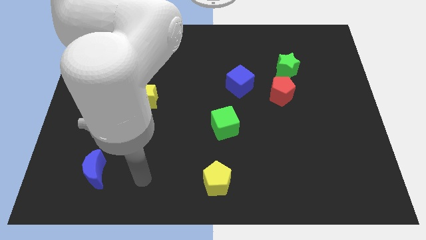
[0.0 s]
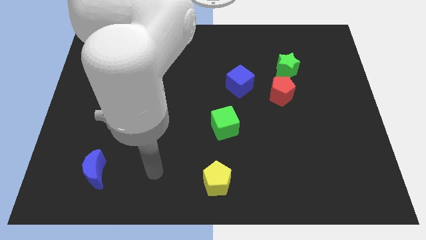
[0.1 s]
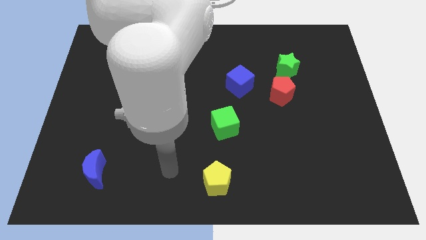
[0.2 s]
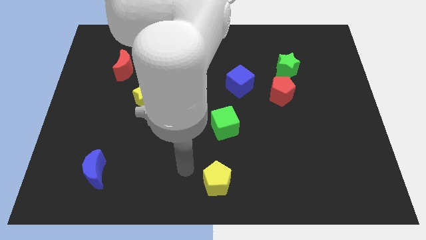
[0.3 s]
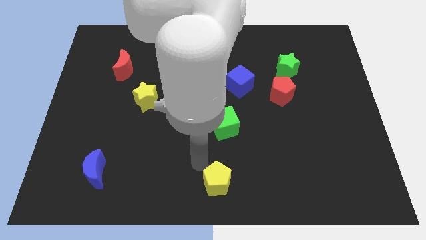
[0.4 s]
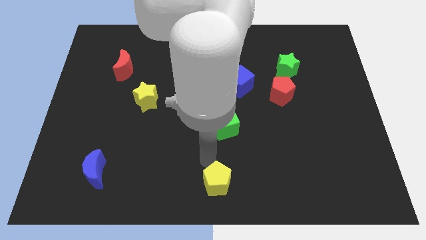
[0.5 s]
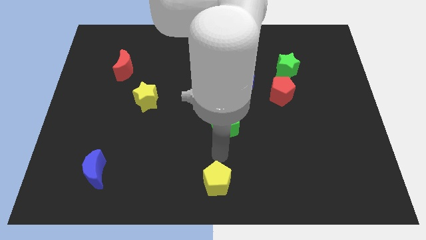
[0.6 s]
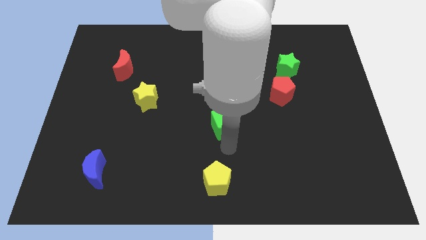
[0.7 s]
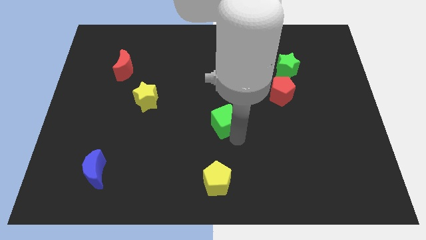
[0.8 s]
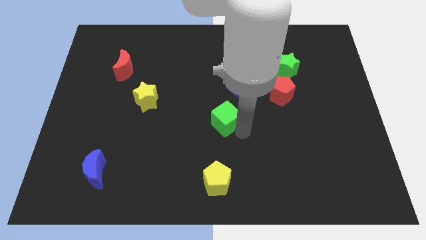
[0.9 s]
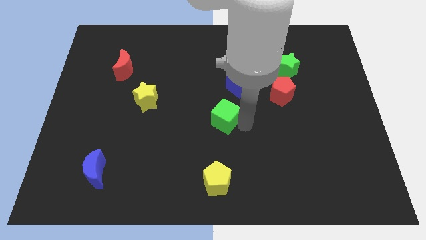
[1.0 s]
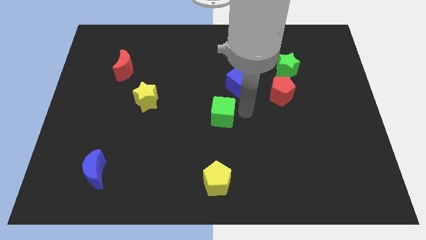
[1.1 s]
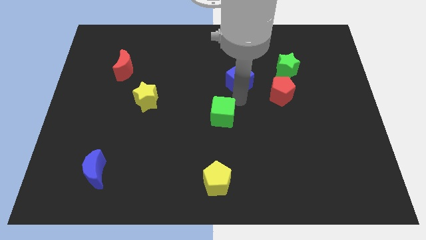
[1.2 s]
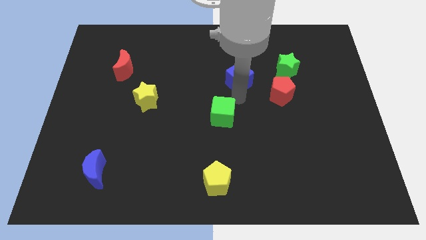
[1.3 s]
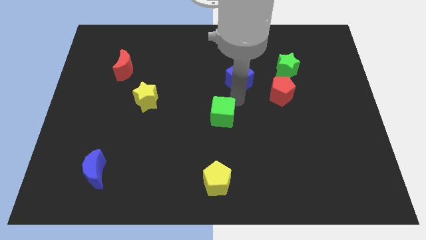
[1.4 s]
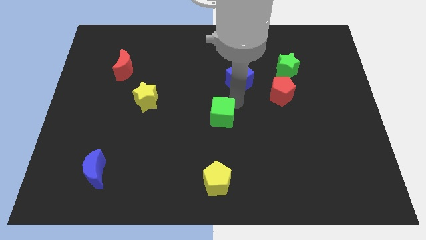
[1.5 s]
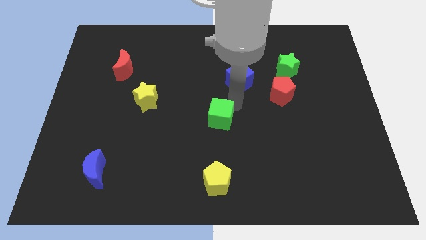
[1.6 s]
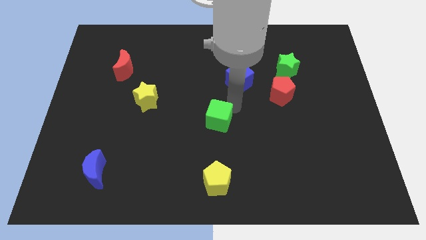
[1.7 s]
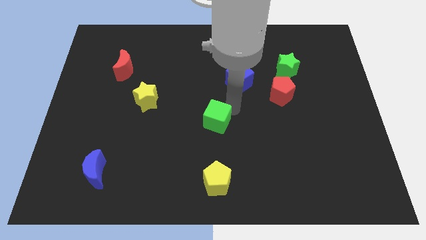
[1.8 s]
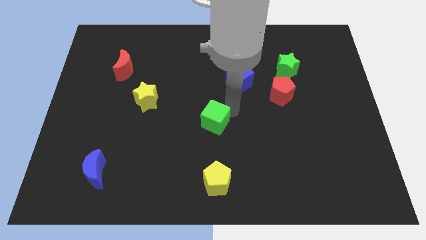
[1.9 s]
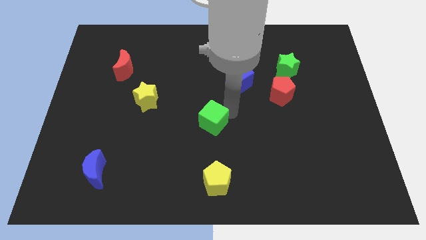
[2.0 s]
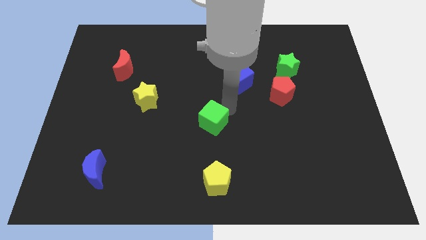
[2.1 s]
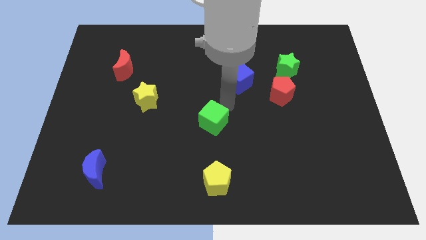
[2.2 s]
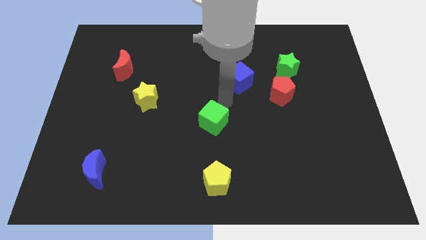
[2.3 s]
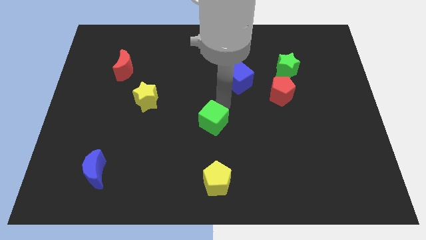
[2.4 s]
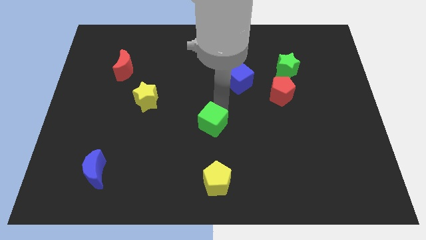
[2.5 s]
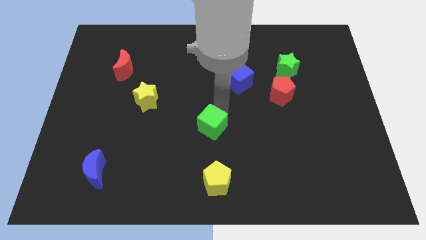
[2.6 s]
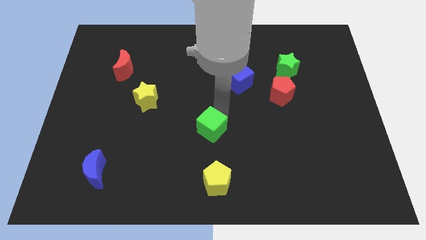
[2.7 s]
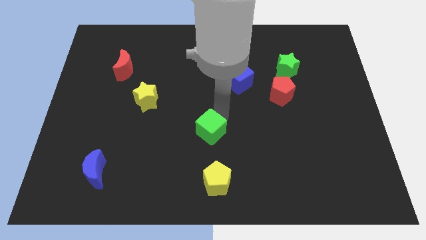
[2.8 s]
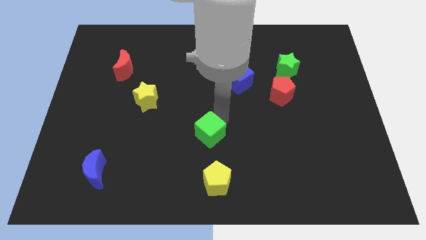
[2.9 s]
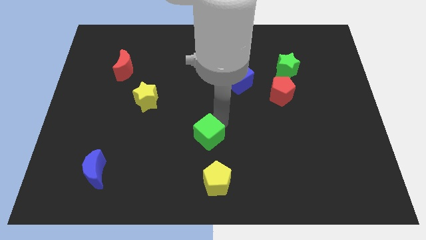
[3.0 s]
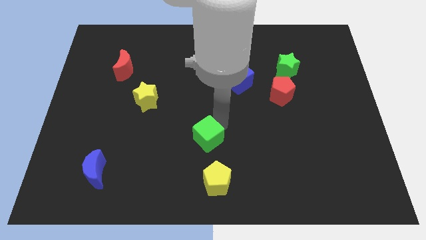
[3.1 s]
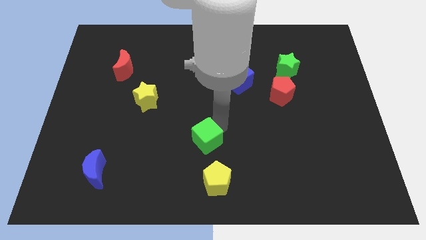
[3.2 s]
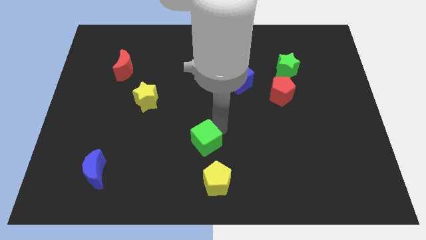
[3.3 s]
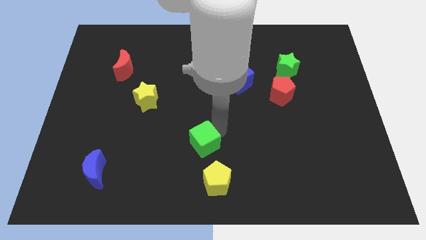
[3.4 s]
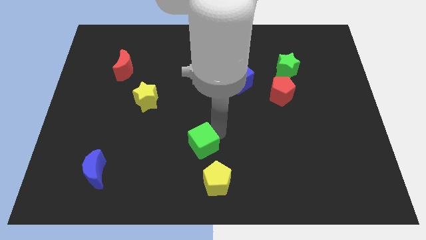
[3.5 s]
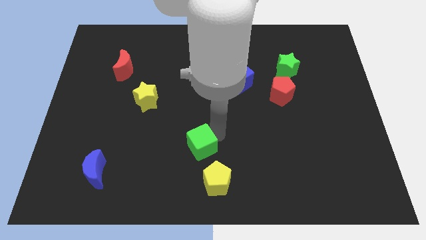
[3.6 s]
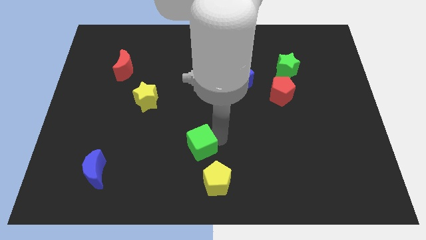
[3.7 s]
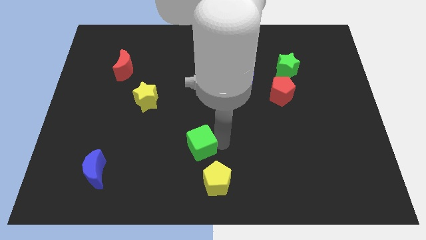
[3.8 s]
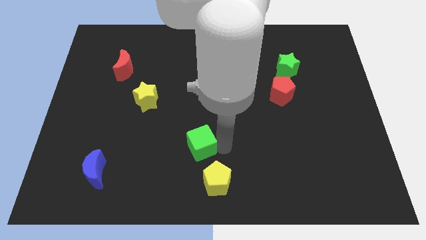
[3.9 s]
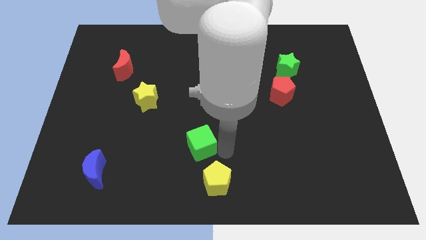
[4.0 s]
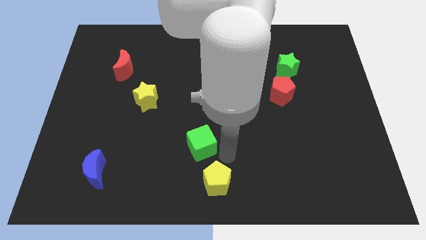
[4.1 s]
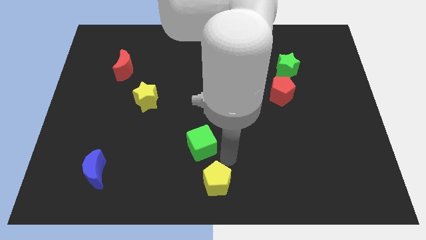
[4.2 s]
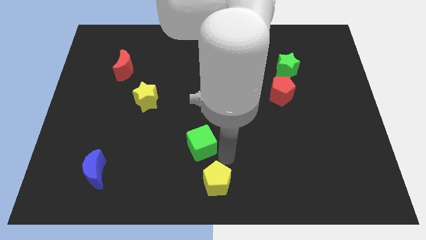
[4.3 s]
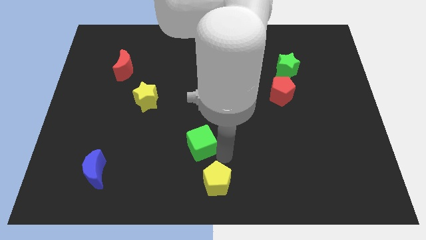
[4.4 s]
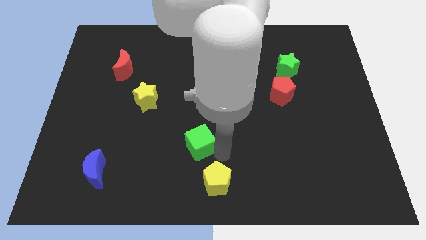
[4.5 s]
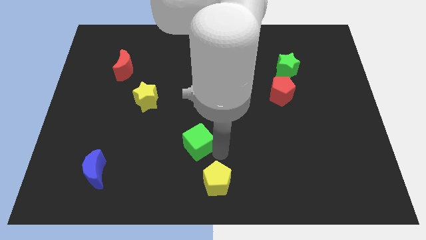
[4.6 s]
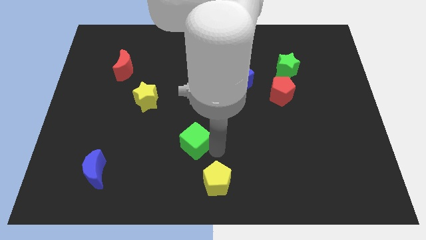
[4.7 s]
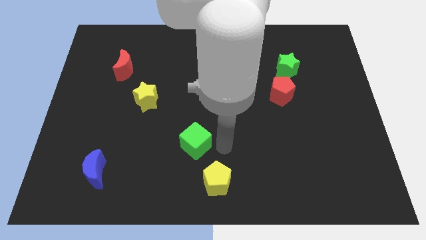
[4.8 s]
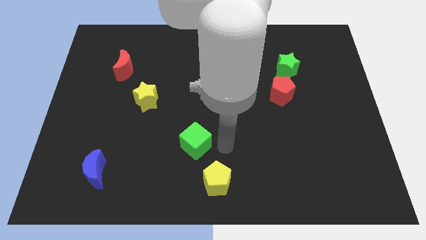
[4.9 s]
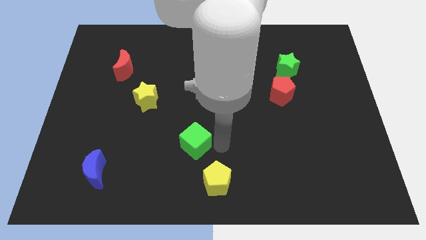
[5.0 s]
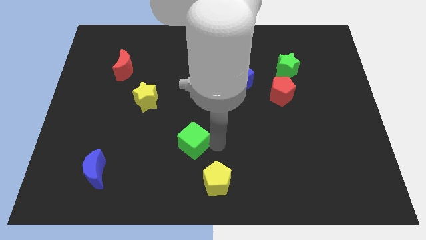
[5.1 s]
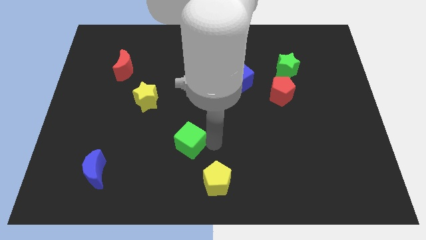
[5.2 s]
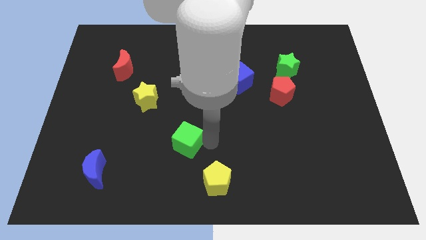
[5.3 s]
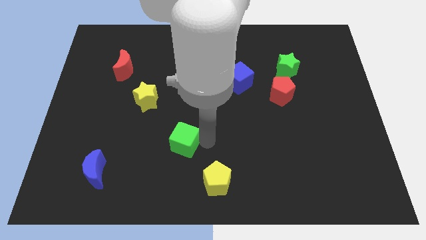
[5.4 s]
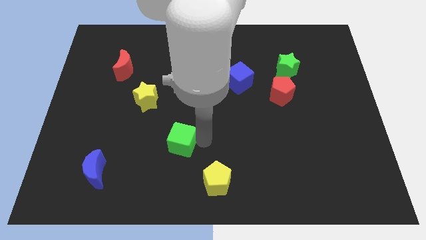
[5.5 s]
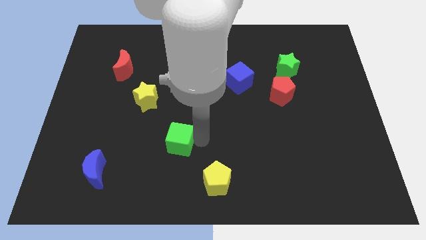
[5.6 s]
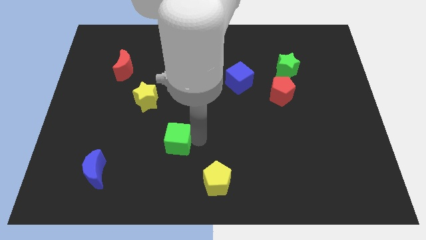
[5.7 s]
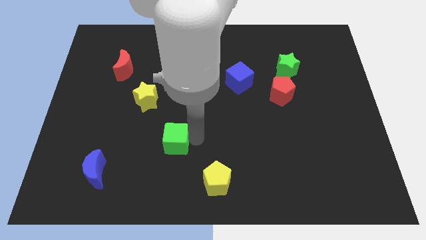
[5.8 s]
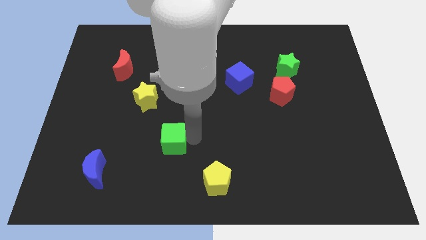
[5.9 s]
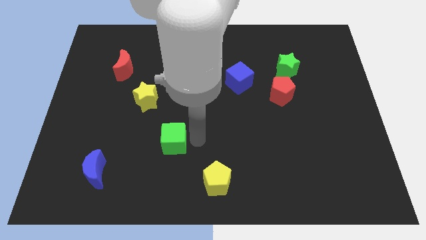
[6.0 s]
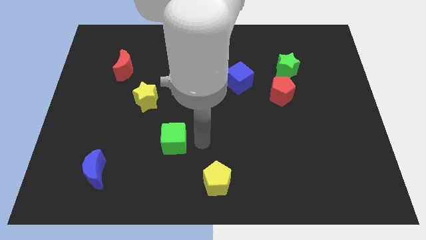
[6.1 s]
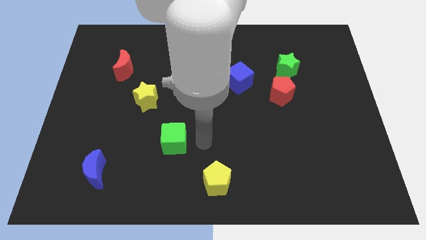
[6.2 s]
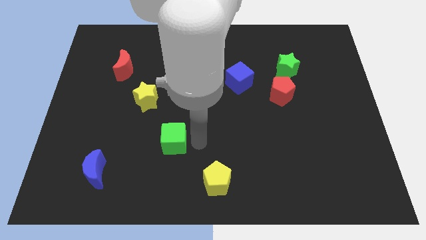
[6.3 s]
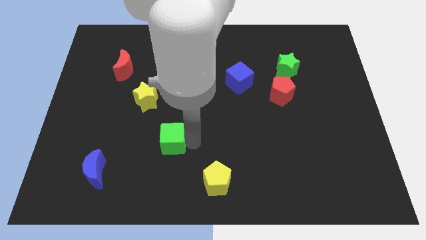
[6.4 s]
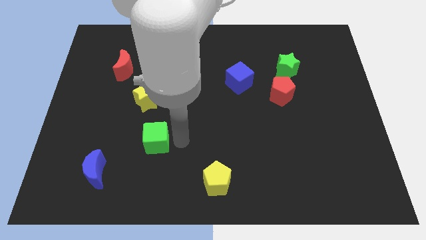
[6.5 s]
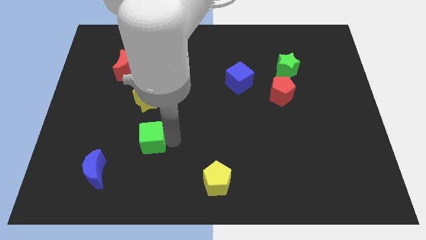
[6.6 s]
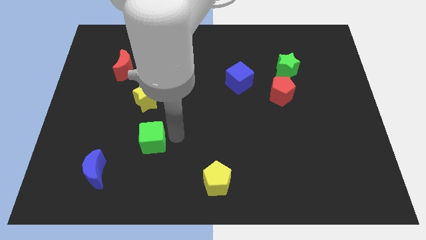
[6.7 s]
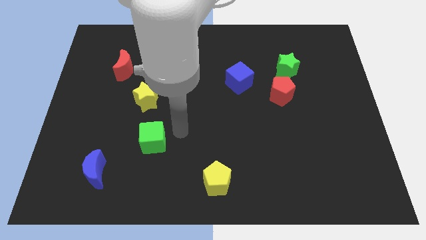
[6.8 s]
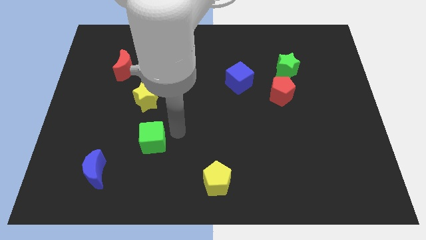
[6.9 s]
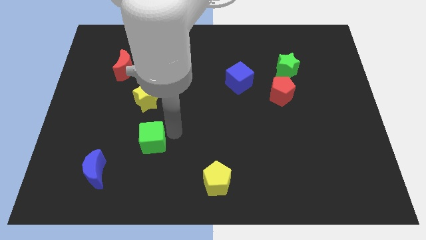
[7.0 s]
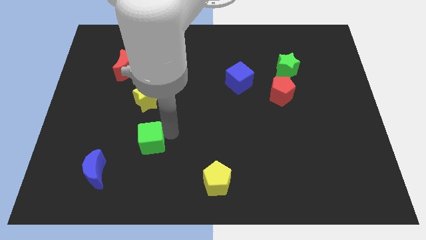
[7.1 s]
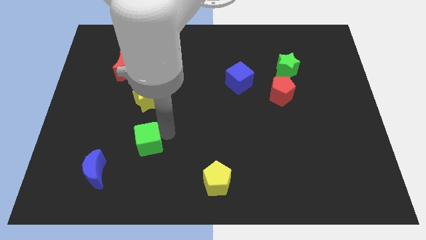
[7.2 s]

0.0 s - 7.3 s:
put the green cube to the top right side of the blue moon
